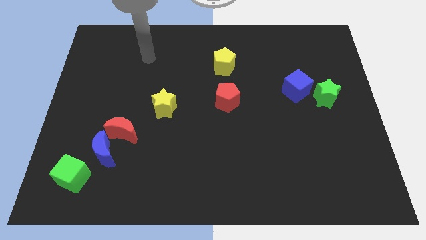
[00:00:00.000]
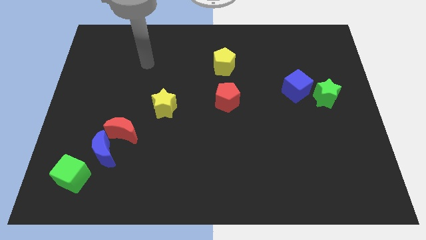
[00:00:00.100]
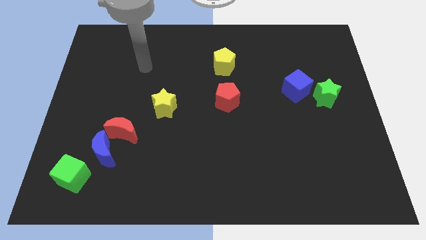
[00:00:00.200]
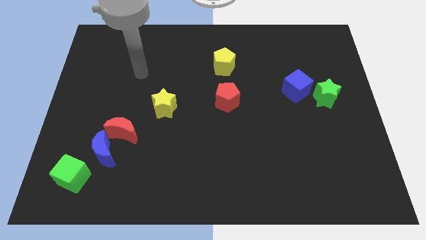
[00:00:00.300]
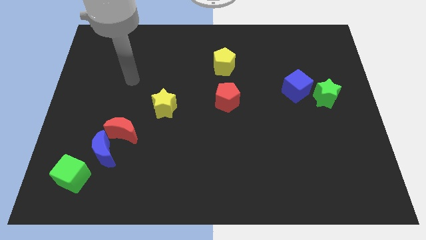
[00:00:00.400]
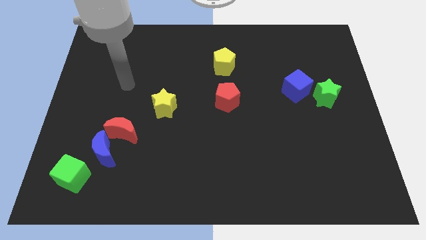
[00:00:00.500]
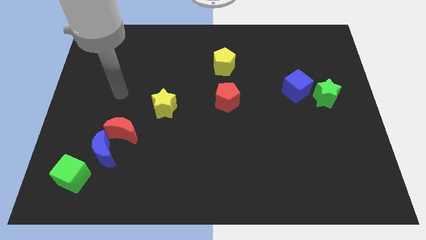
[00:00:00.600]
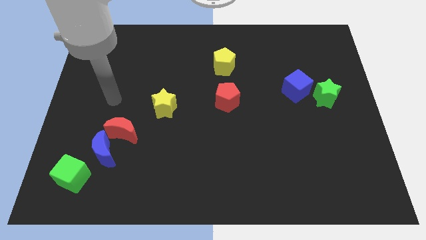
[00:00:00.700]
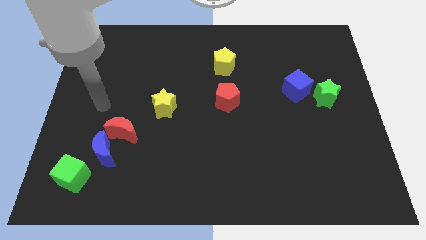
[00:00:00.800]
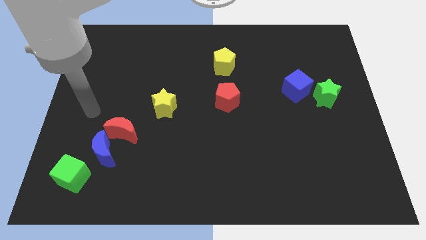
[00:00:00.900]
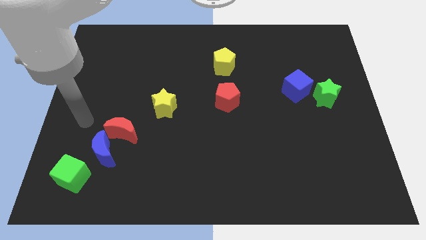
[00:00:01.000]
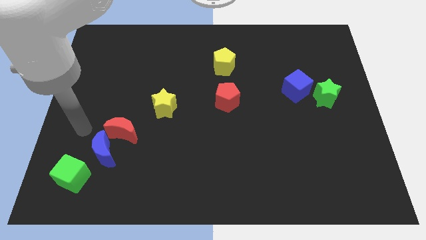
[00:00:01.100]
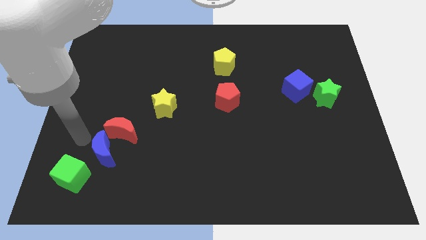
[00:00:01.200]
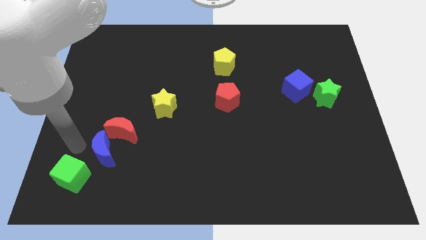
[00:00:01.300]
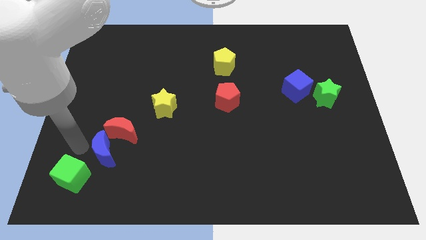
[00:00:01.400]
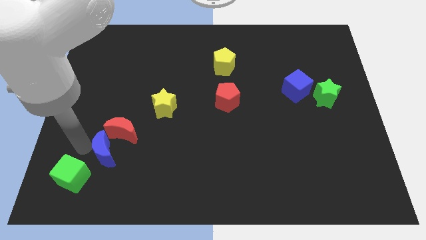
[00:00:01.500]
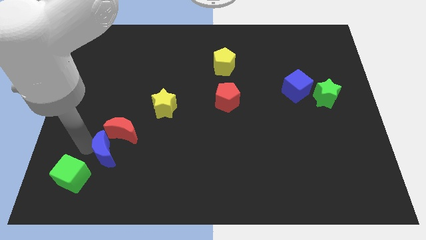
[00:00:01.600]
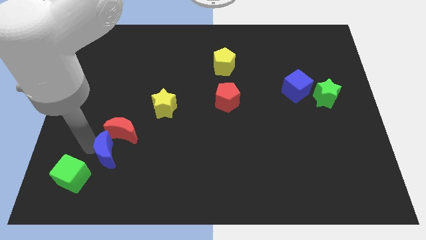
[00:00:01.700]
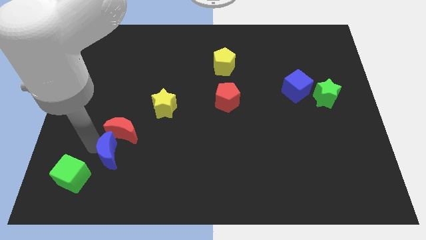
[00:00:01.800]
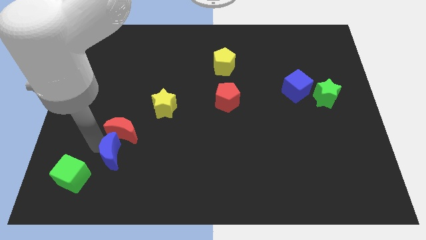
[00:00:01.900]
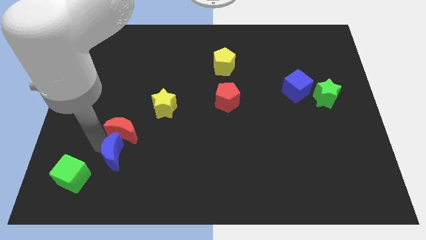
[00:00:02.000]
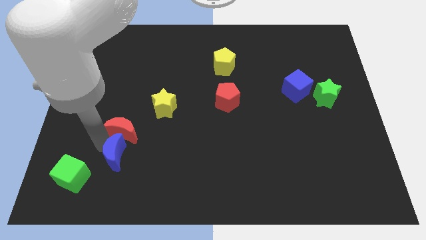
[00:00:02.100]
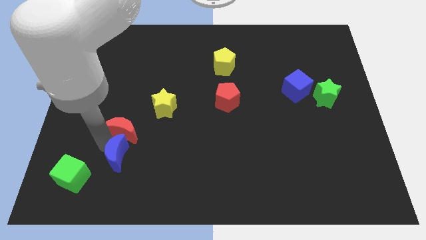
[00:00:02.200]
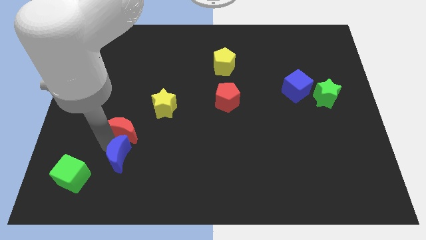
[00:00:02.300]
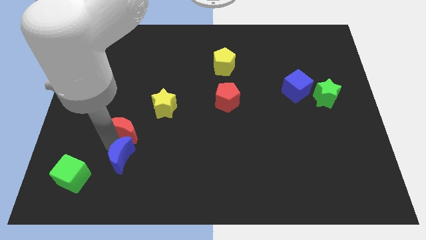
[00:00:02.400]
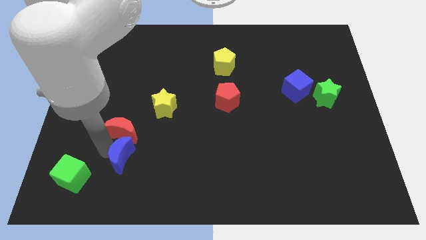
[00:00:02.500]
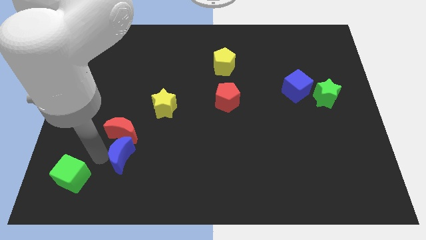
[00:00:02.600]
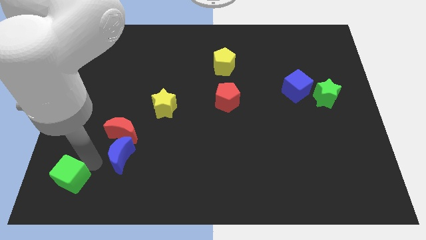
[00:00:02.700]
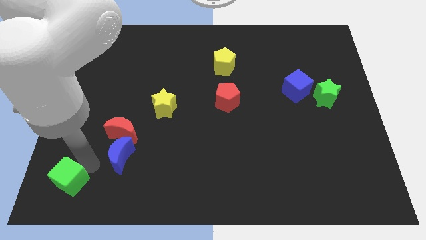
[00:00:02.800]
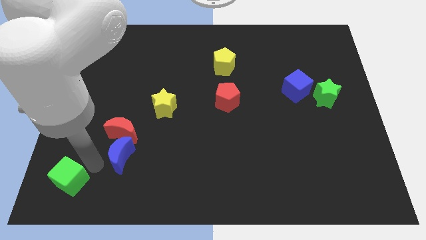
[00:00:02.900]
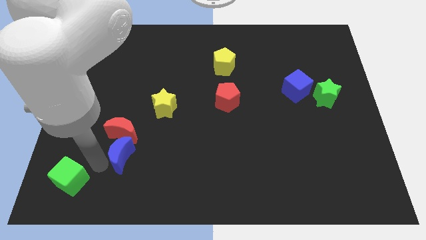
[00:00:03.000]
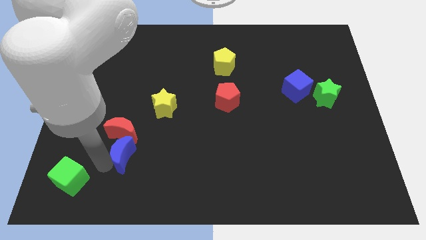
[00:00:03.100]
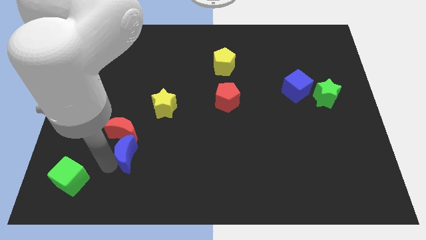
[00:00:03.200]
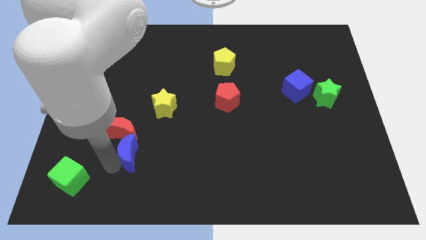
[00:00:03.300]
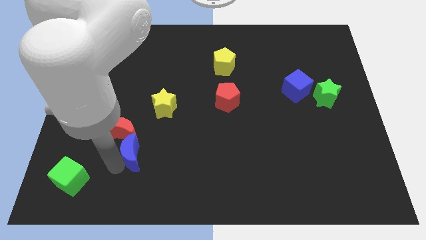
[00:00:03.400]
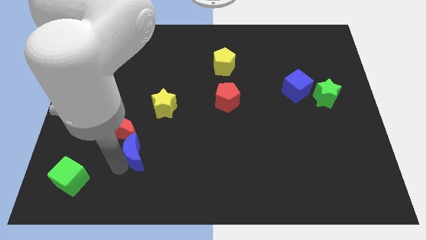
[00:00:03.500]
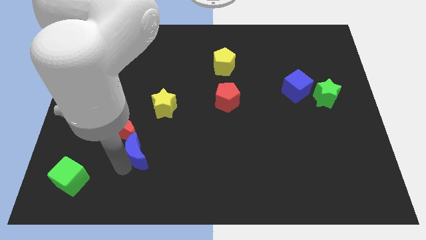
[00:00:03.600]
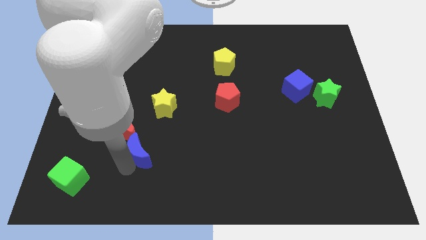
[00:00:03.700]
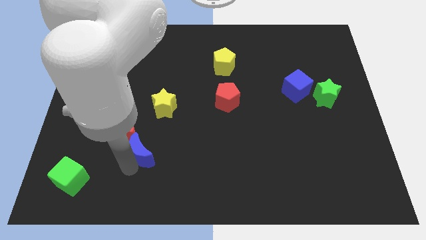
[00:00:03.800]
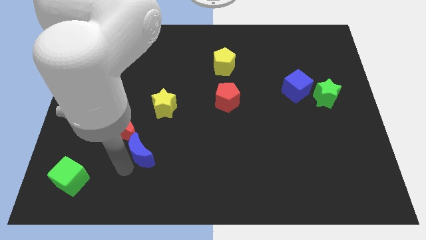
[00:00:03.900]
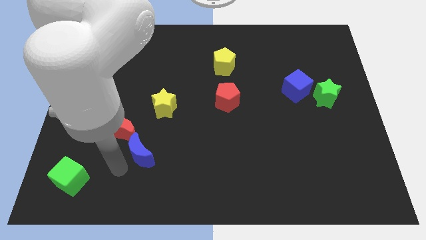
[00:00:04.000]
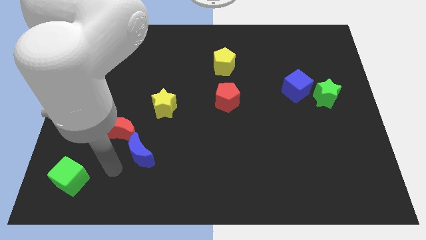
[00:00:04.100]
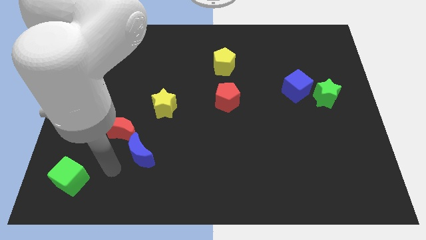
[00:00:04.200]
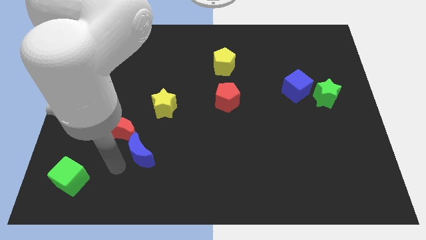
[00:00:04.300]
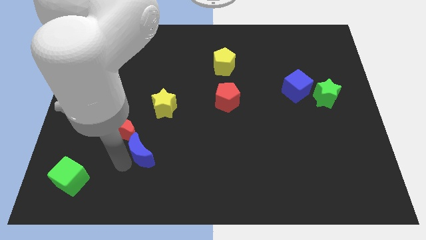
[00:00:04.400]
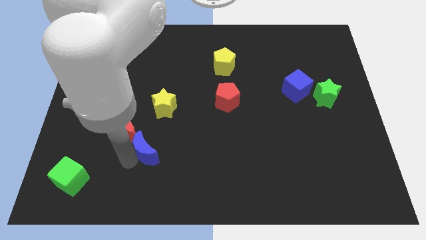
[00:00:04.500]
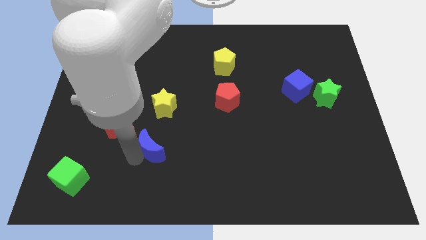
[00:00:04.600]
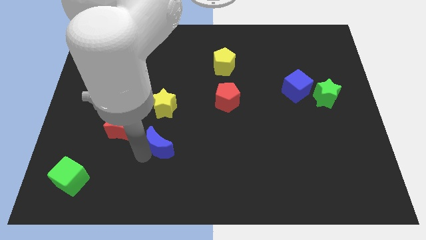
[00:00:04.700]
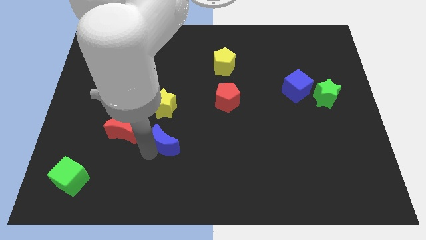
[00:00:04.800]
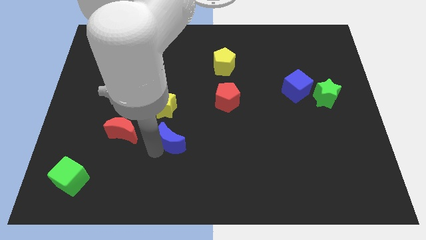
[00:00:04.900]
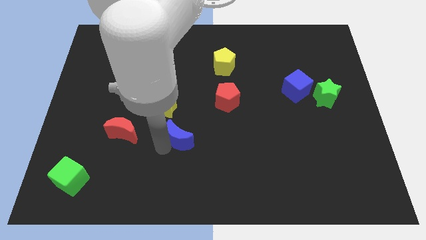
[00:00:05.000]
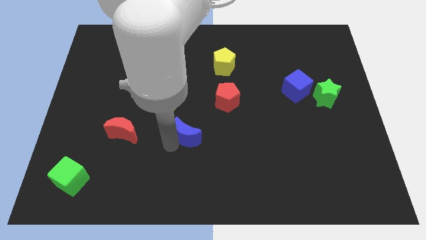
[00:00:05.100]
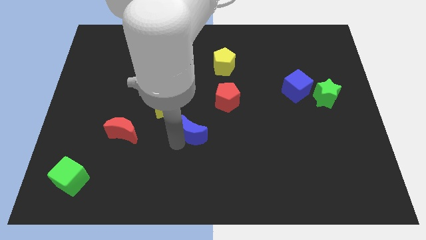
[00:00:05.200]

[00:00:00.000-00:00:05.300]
push the blue moon diagonally down and to the left of the red pentagon

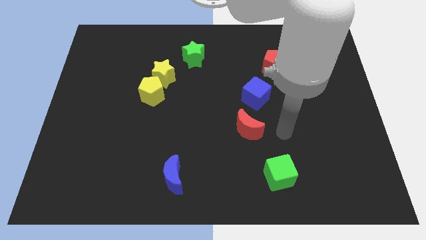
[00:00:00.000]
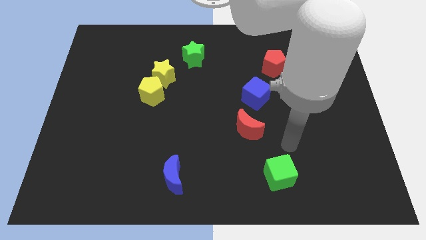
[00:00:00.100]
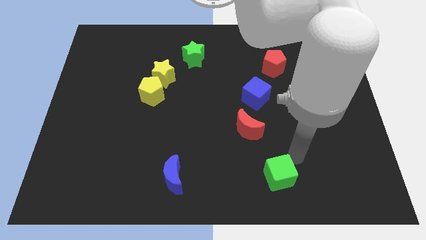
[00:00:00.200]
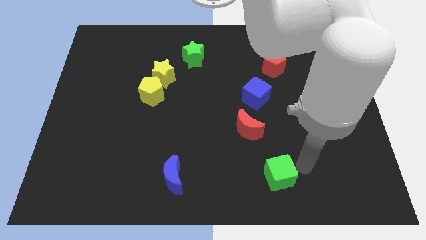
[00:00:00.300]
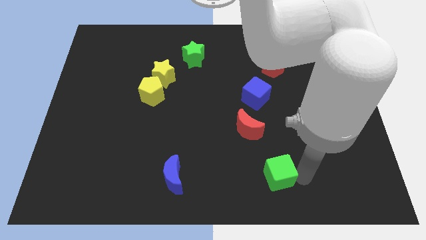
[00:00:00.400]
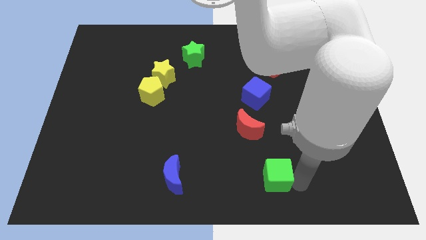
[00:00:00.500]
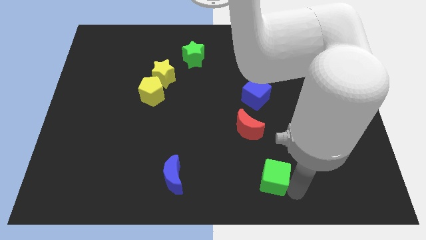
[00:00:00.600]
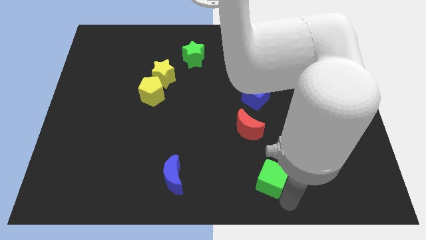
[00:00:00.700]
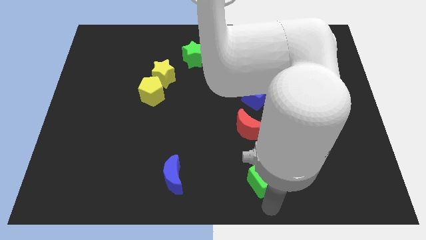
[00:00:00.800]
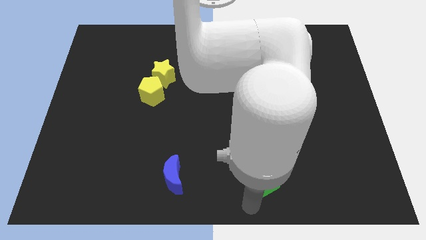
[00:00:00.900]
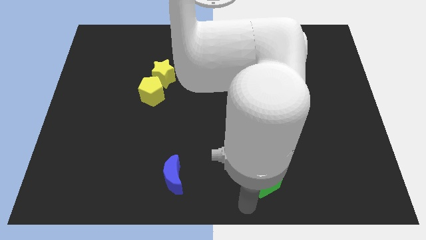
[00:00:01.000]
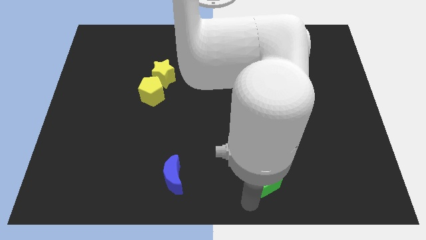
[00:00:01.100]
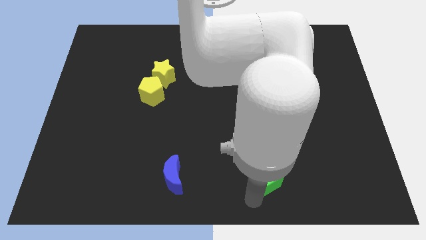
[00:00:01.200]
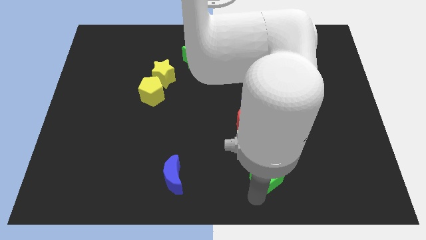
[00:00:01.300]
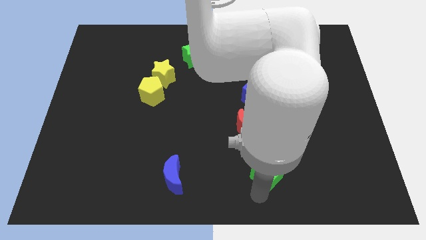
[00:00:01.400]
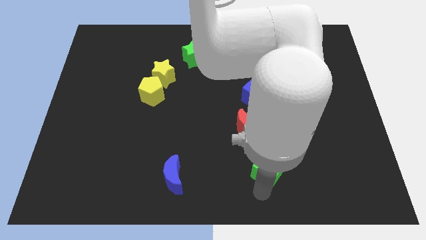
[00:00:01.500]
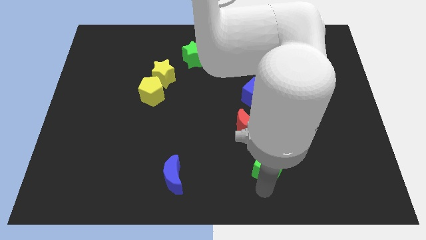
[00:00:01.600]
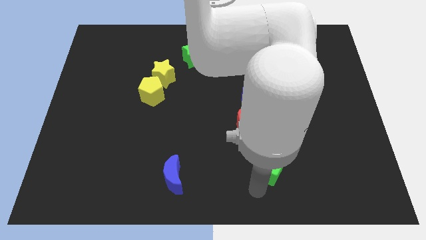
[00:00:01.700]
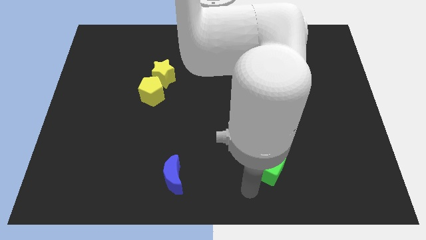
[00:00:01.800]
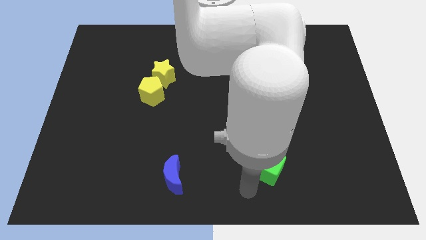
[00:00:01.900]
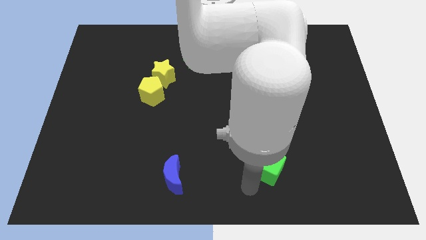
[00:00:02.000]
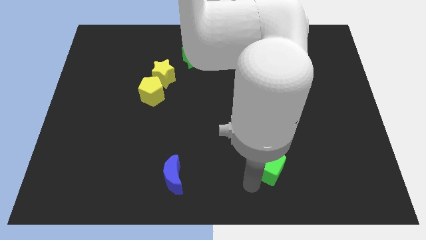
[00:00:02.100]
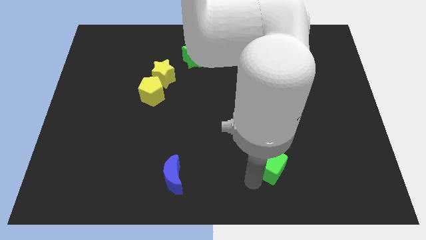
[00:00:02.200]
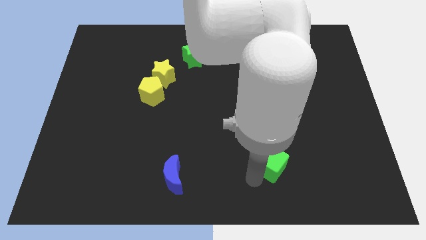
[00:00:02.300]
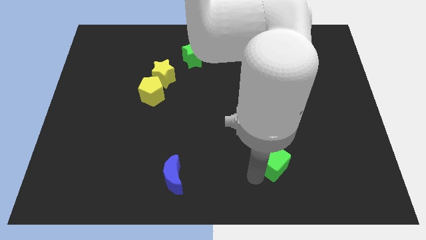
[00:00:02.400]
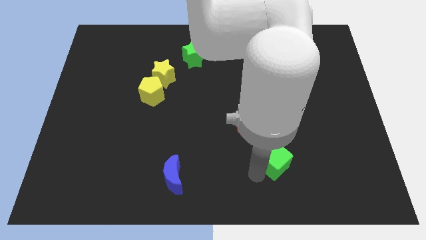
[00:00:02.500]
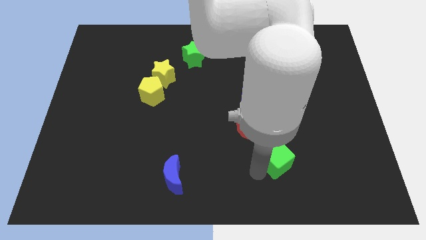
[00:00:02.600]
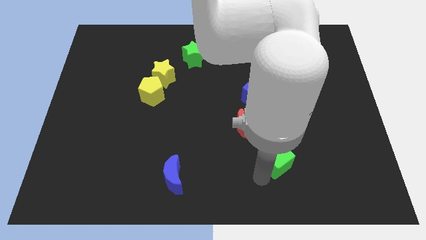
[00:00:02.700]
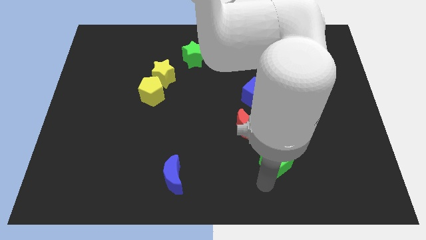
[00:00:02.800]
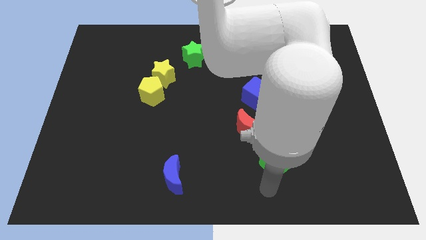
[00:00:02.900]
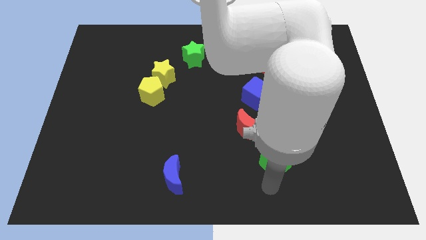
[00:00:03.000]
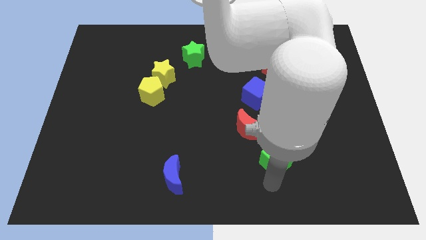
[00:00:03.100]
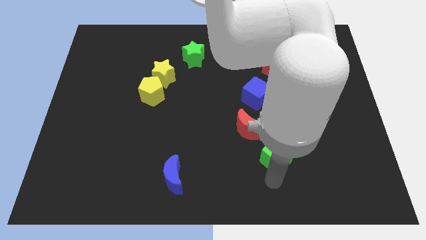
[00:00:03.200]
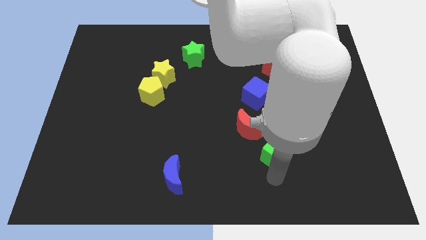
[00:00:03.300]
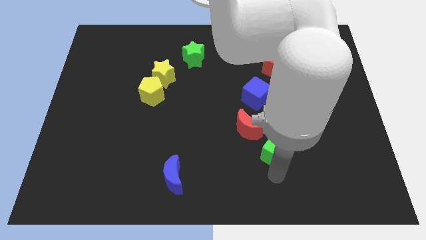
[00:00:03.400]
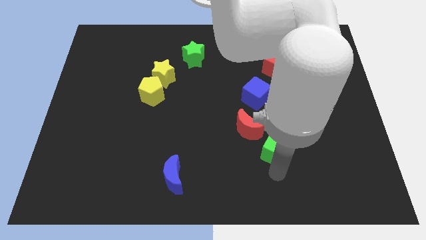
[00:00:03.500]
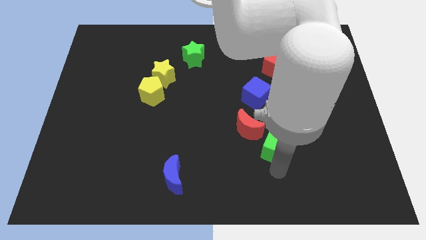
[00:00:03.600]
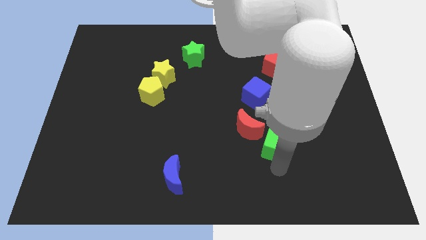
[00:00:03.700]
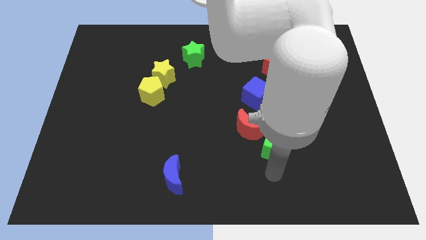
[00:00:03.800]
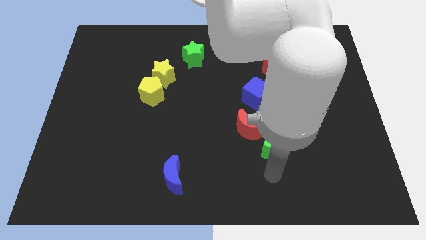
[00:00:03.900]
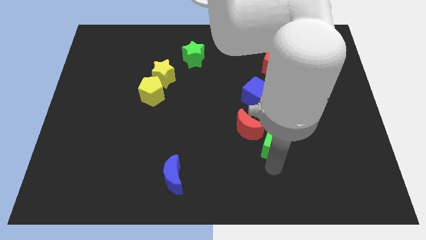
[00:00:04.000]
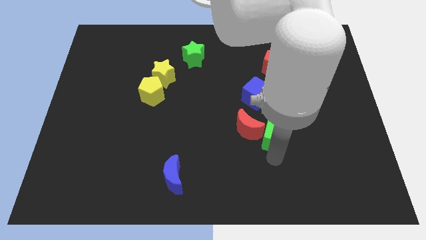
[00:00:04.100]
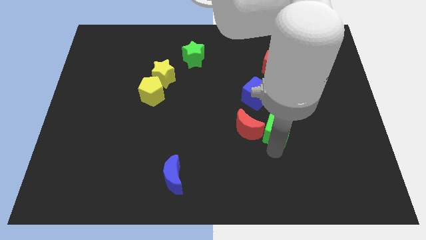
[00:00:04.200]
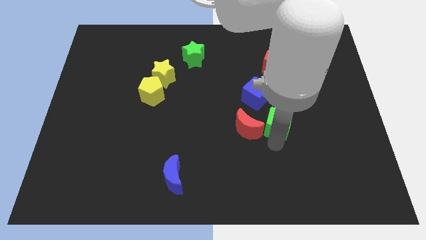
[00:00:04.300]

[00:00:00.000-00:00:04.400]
put the green cube to the bottom right side of the blue cube
